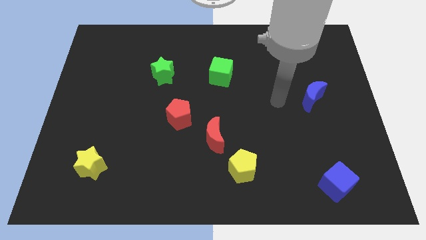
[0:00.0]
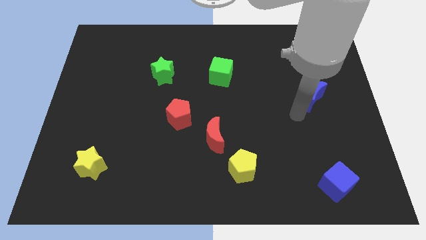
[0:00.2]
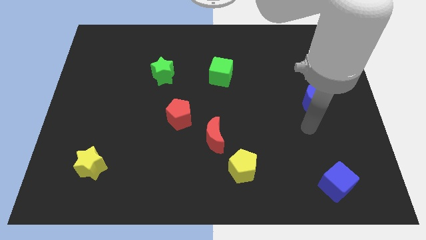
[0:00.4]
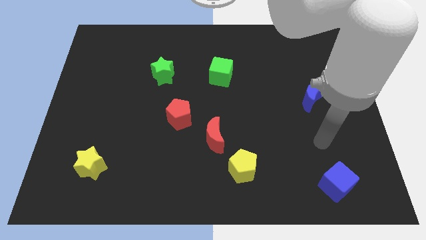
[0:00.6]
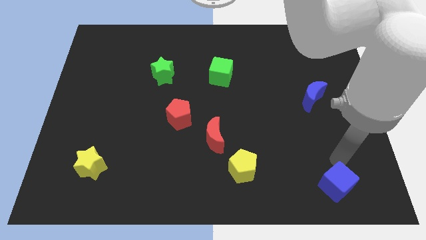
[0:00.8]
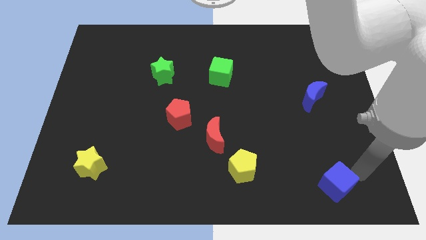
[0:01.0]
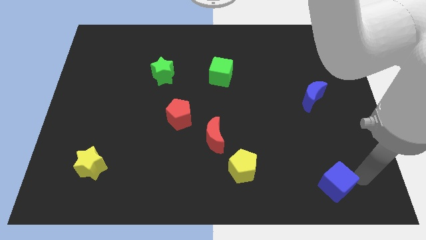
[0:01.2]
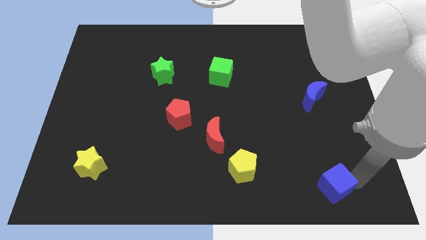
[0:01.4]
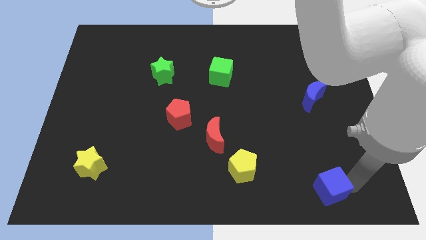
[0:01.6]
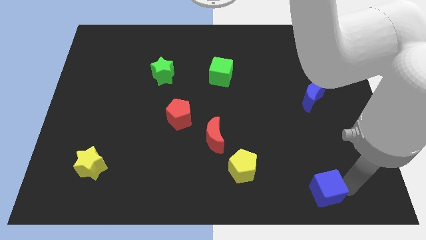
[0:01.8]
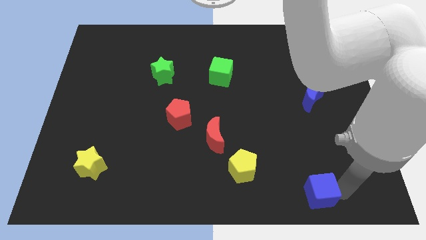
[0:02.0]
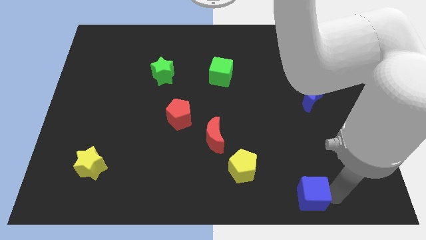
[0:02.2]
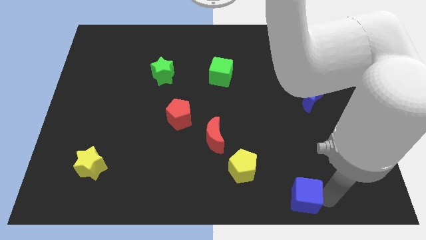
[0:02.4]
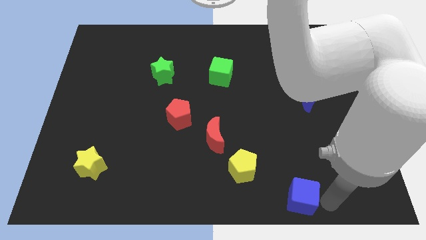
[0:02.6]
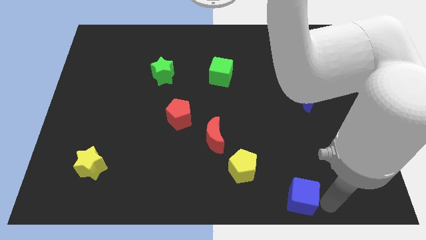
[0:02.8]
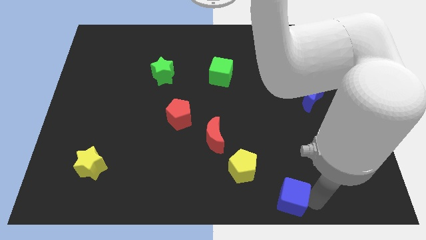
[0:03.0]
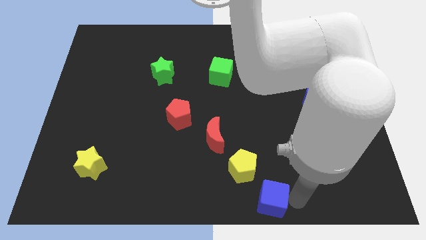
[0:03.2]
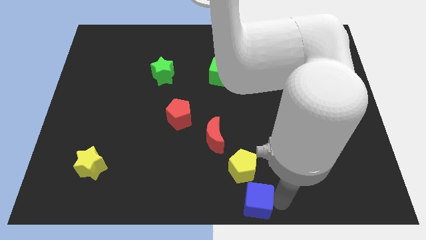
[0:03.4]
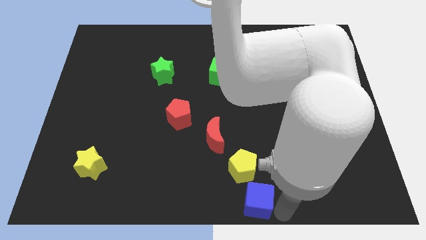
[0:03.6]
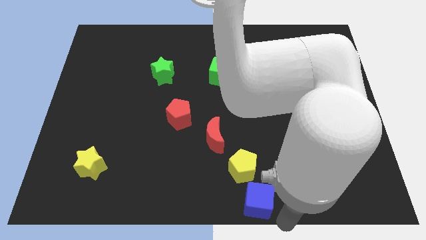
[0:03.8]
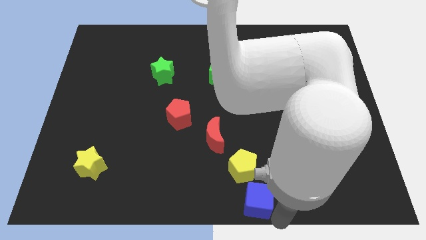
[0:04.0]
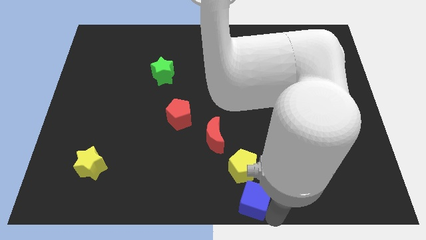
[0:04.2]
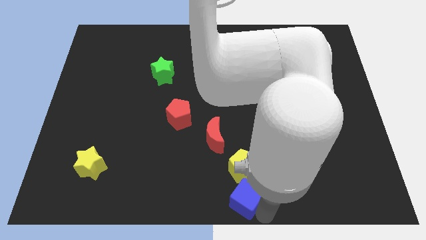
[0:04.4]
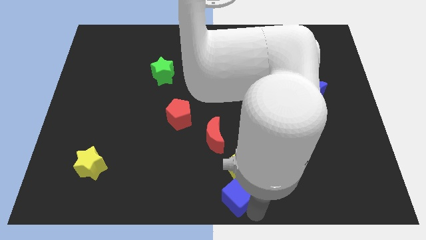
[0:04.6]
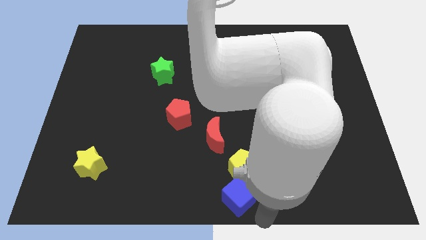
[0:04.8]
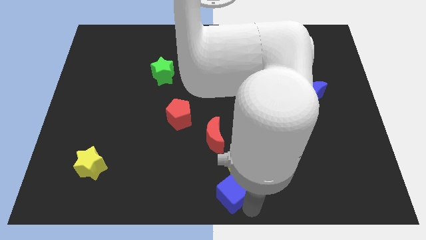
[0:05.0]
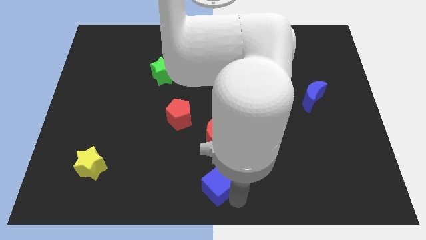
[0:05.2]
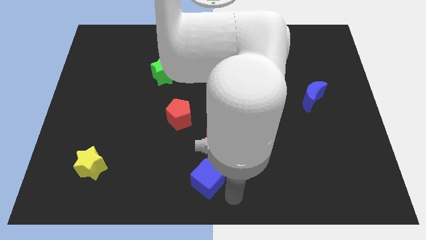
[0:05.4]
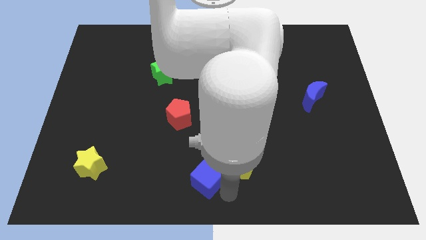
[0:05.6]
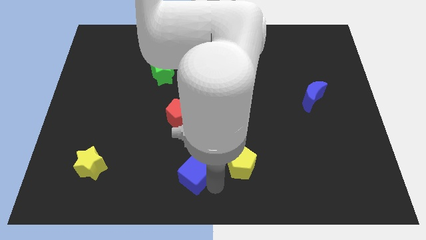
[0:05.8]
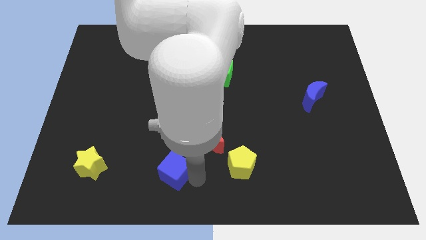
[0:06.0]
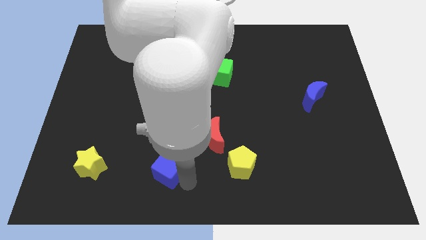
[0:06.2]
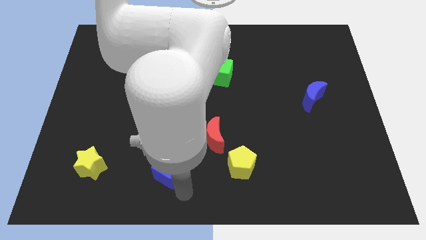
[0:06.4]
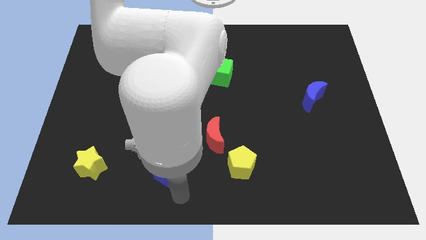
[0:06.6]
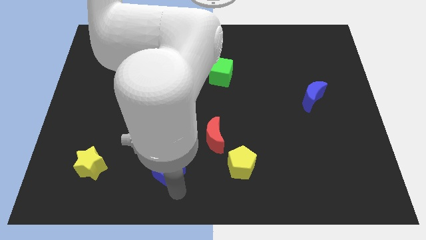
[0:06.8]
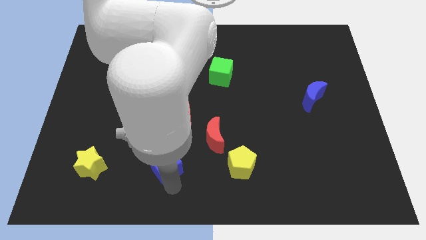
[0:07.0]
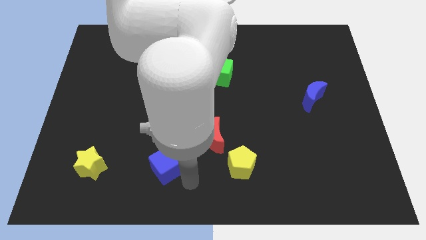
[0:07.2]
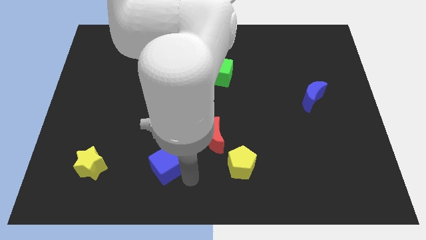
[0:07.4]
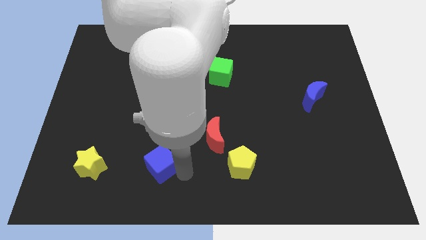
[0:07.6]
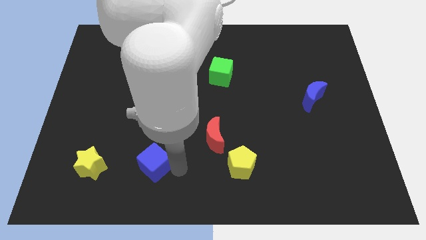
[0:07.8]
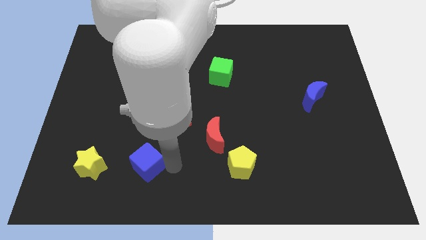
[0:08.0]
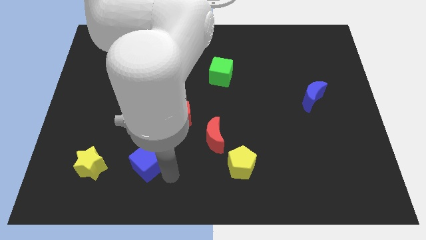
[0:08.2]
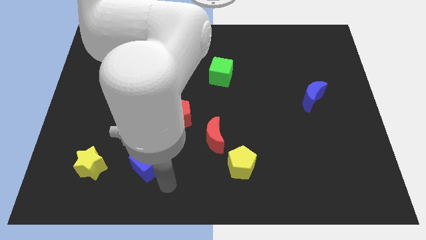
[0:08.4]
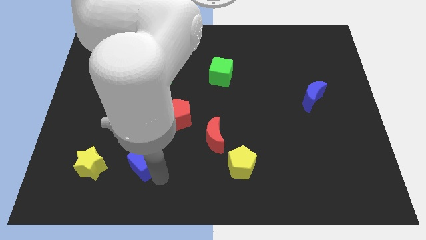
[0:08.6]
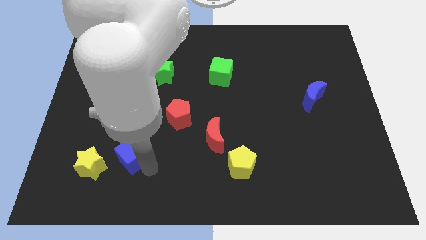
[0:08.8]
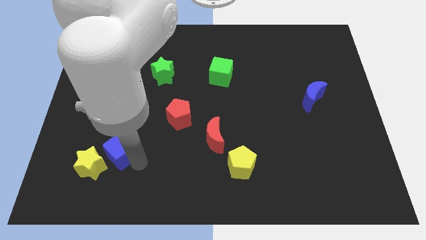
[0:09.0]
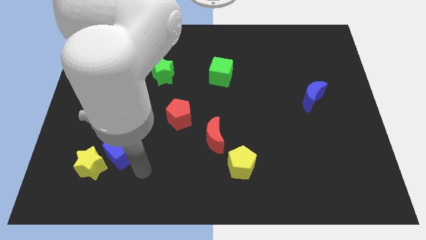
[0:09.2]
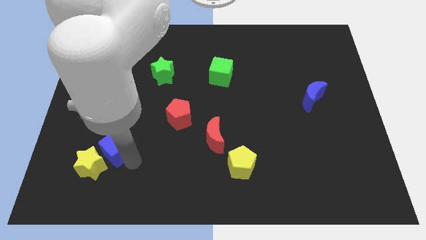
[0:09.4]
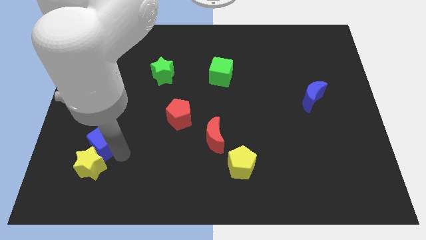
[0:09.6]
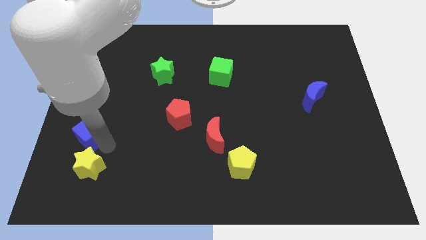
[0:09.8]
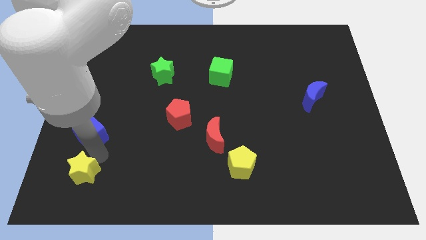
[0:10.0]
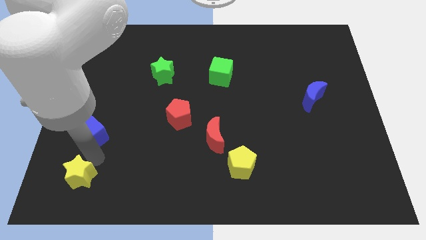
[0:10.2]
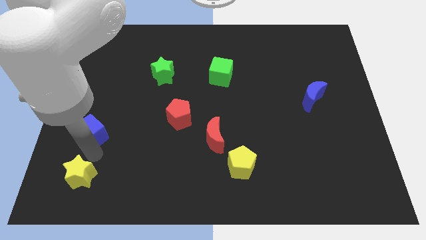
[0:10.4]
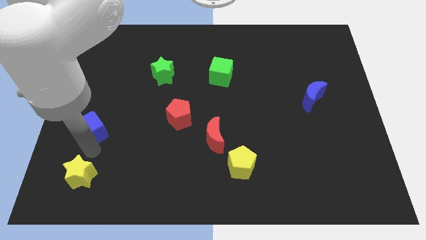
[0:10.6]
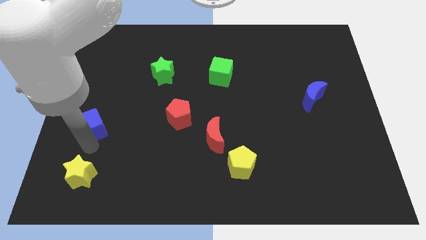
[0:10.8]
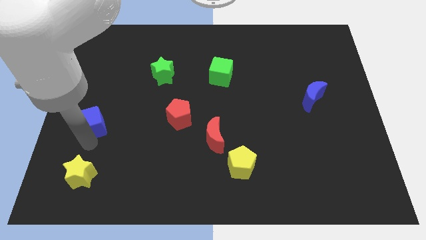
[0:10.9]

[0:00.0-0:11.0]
push the blue cube to the center left

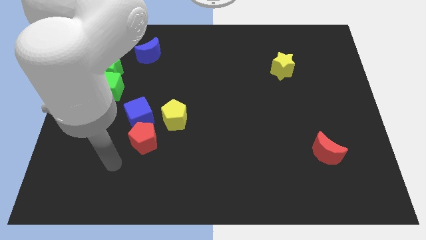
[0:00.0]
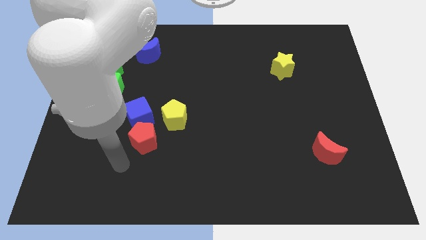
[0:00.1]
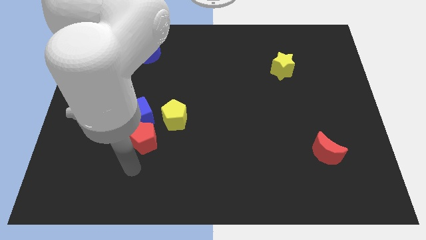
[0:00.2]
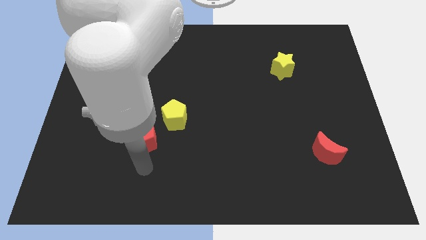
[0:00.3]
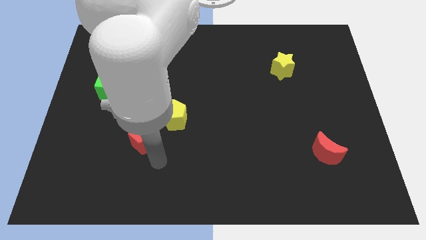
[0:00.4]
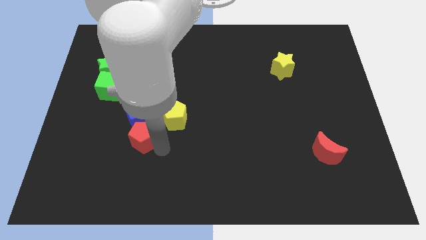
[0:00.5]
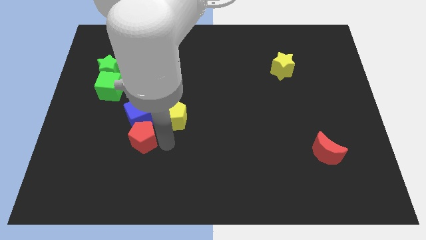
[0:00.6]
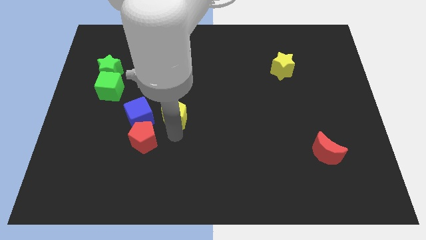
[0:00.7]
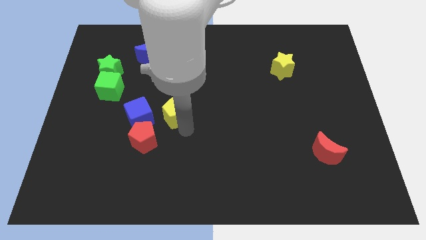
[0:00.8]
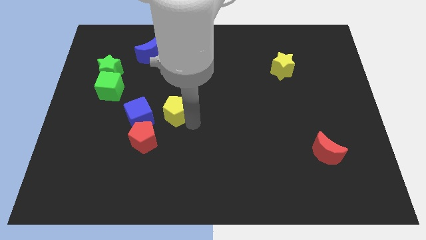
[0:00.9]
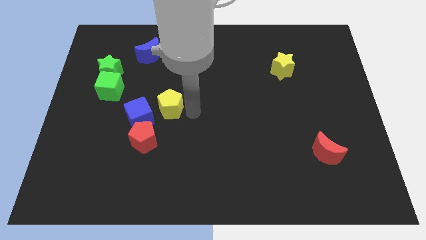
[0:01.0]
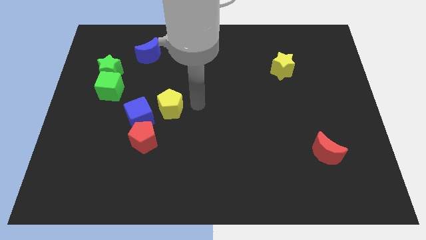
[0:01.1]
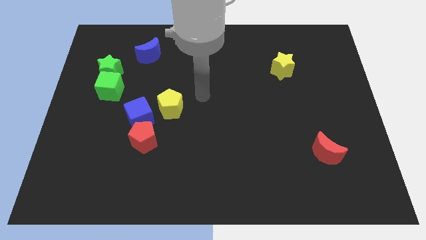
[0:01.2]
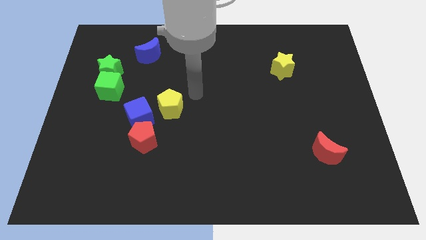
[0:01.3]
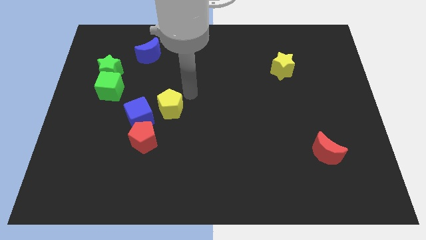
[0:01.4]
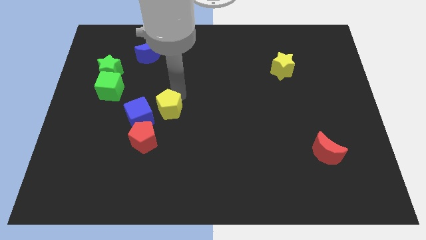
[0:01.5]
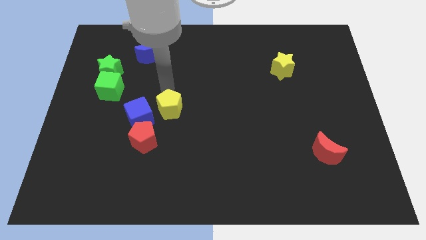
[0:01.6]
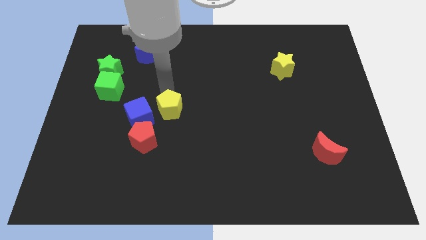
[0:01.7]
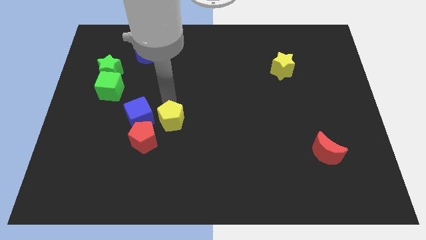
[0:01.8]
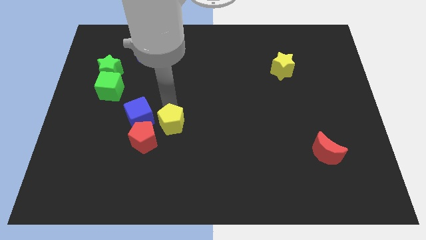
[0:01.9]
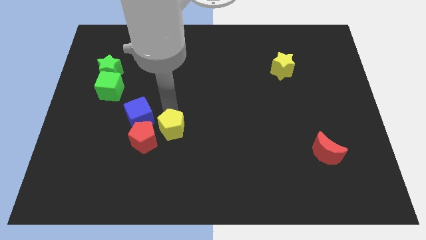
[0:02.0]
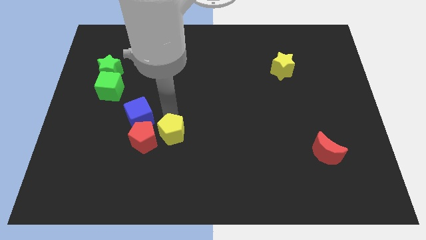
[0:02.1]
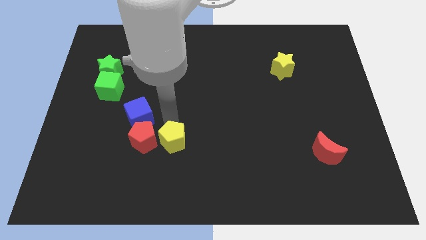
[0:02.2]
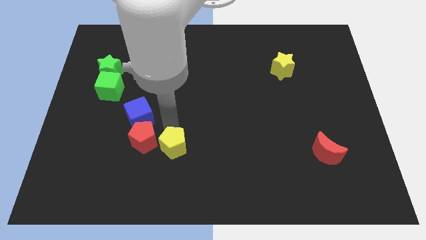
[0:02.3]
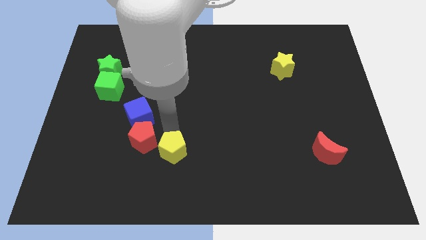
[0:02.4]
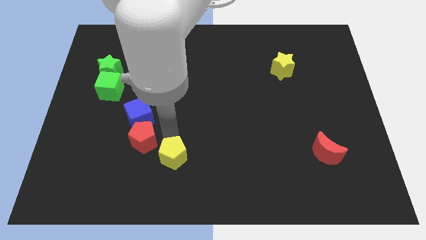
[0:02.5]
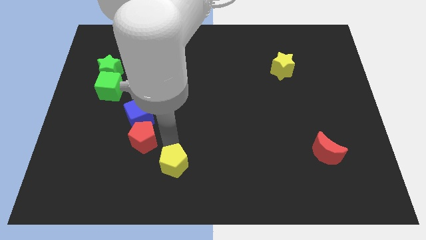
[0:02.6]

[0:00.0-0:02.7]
push the yellow pentagon to the bottom
